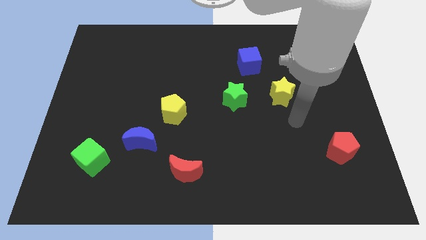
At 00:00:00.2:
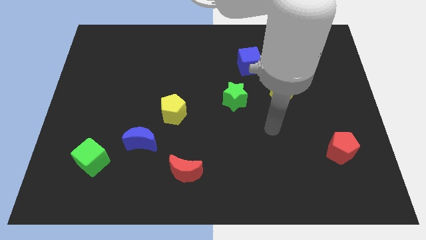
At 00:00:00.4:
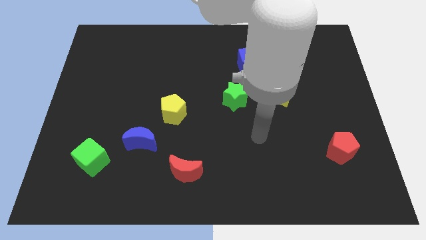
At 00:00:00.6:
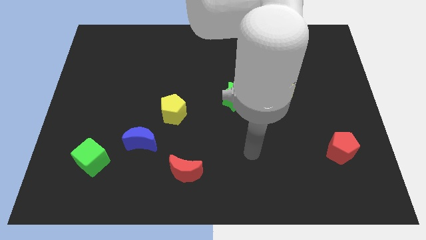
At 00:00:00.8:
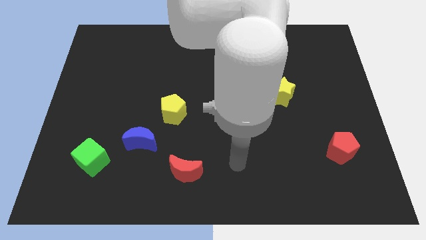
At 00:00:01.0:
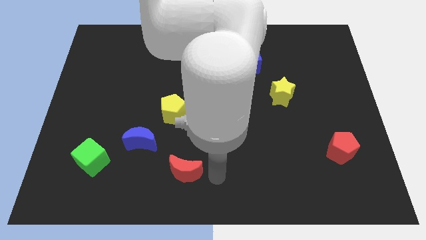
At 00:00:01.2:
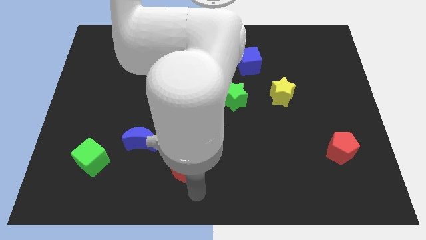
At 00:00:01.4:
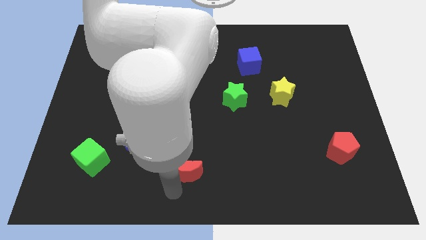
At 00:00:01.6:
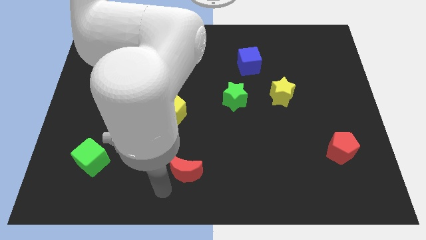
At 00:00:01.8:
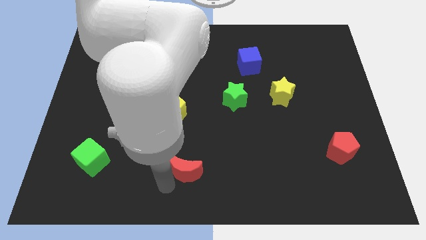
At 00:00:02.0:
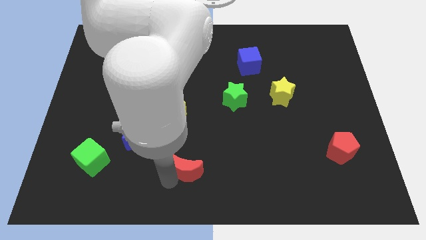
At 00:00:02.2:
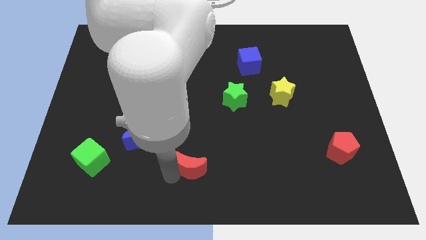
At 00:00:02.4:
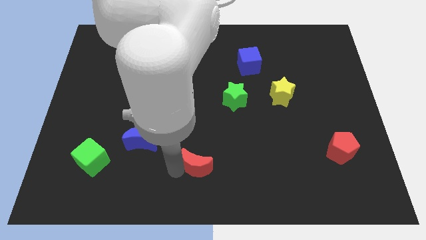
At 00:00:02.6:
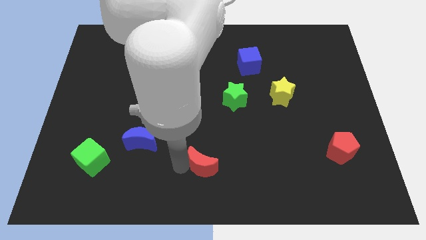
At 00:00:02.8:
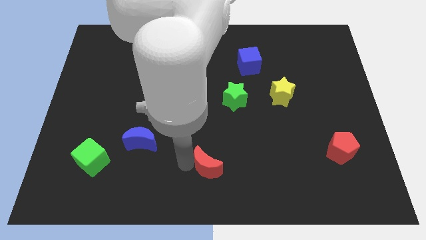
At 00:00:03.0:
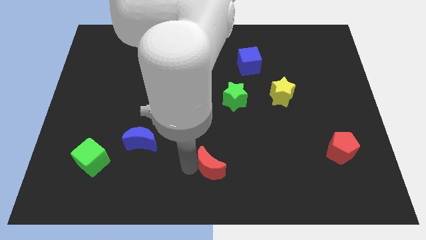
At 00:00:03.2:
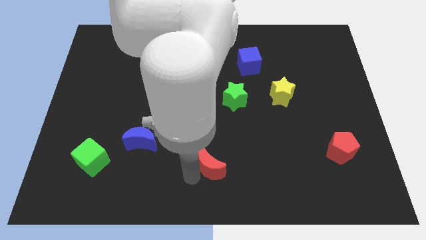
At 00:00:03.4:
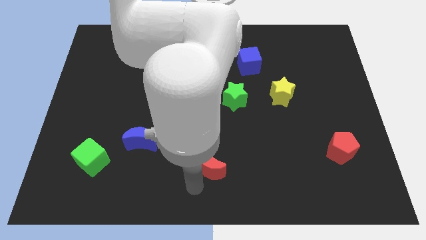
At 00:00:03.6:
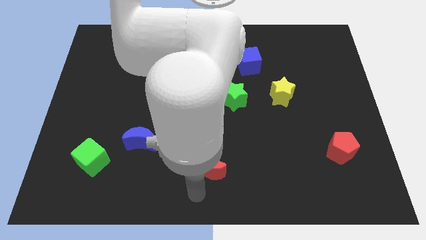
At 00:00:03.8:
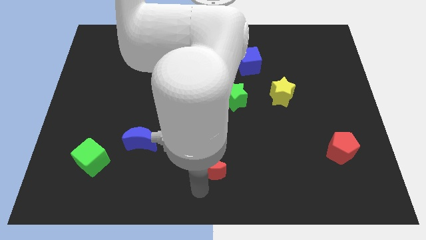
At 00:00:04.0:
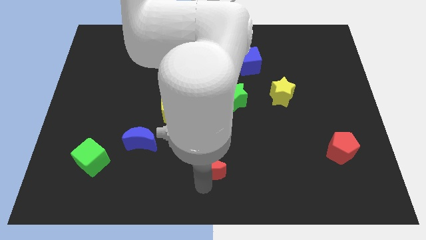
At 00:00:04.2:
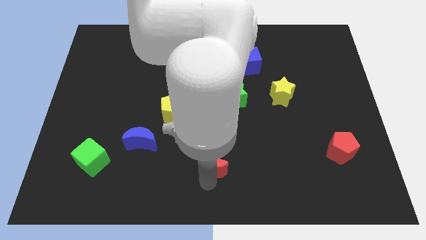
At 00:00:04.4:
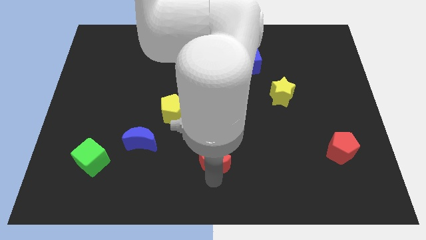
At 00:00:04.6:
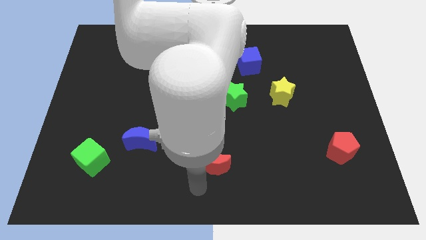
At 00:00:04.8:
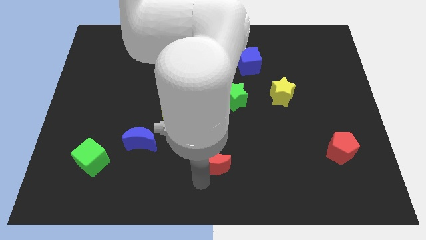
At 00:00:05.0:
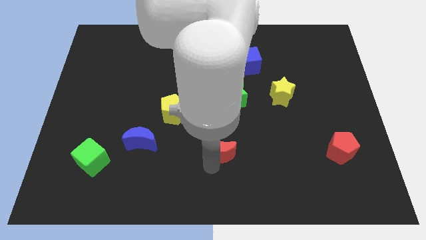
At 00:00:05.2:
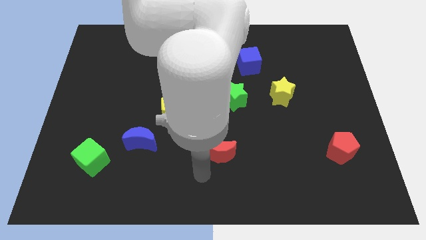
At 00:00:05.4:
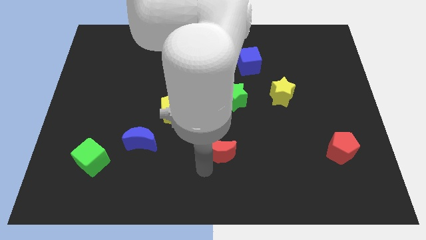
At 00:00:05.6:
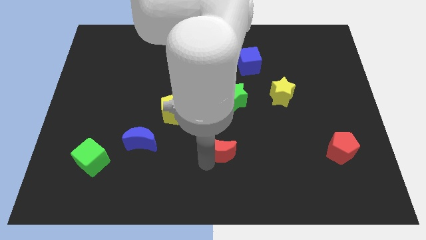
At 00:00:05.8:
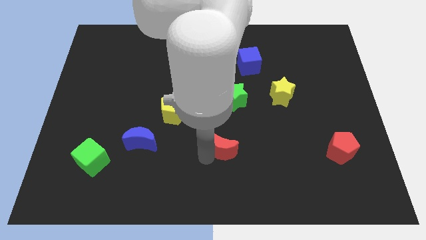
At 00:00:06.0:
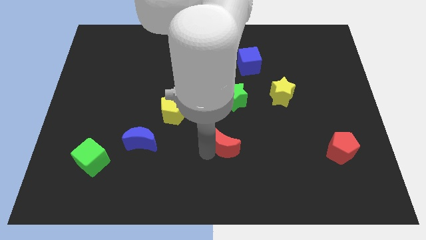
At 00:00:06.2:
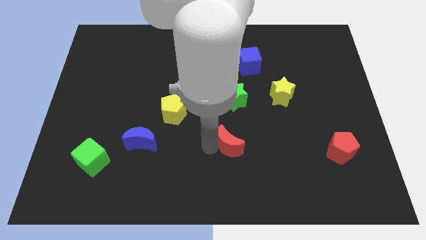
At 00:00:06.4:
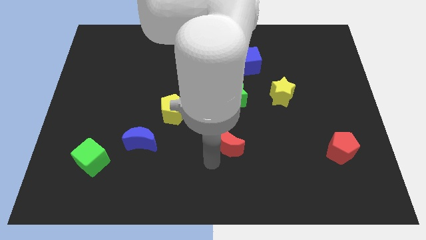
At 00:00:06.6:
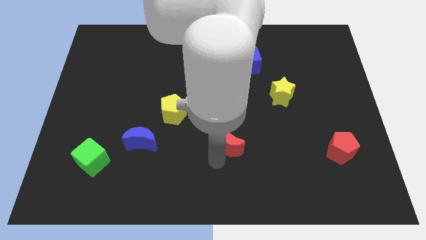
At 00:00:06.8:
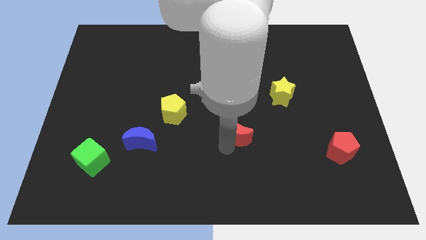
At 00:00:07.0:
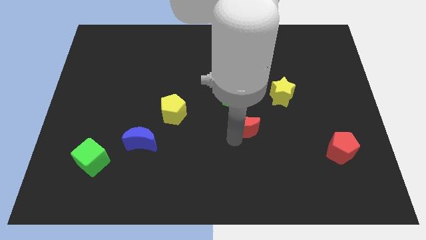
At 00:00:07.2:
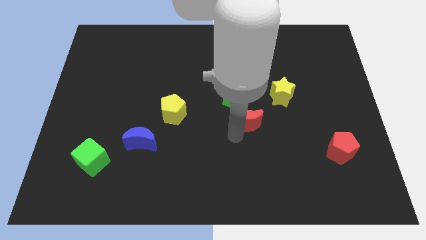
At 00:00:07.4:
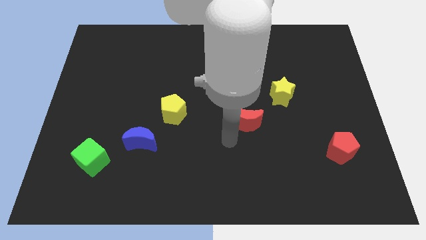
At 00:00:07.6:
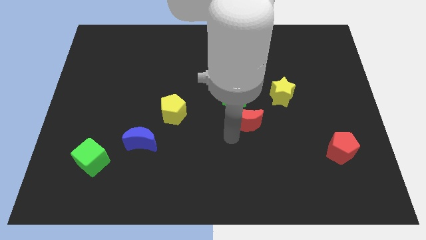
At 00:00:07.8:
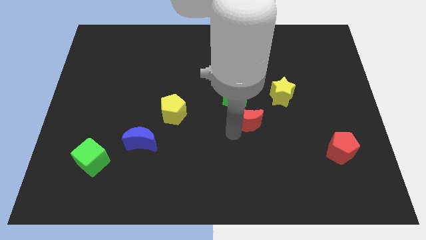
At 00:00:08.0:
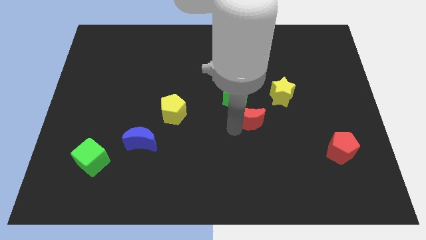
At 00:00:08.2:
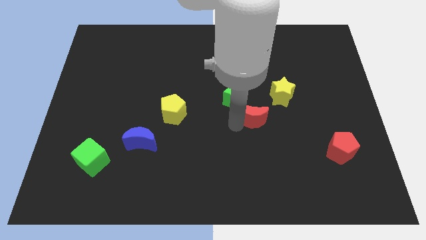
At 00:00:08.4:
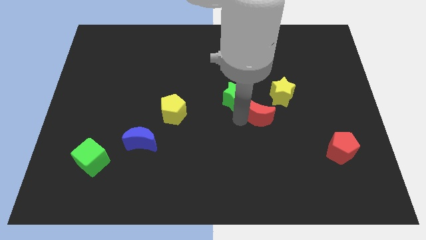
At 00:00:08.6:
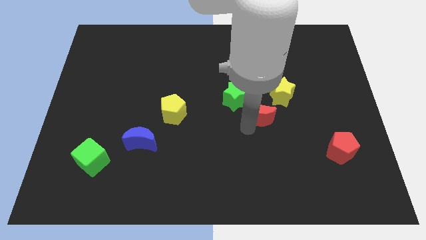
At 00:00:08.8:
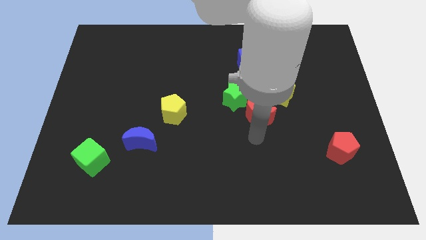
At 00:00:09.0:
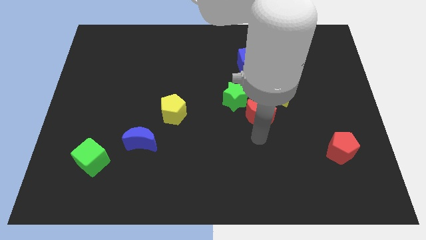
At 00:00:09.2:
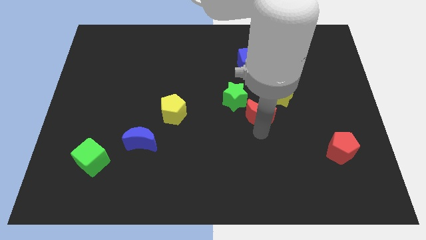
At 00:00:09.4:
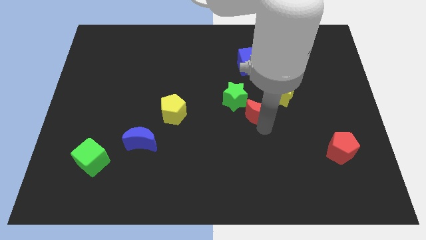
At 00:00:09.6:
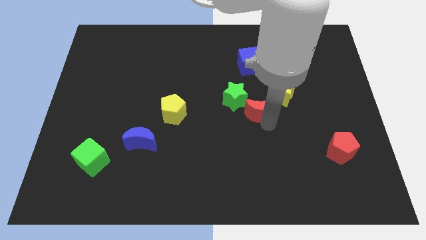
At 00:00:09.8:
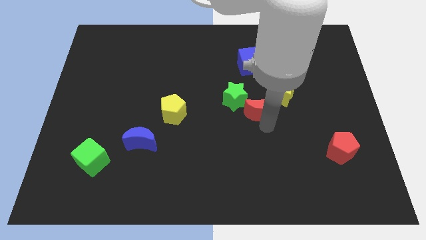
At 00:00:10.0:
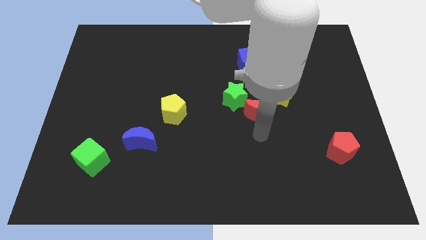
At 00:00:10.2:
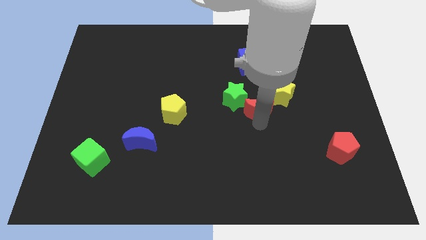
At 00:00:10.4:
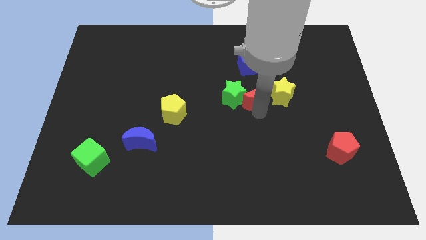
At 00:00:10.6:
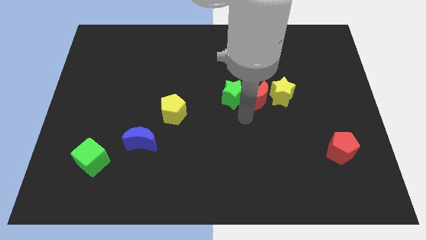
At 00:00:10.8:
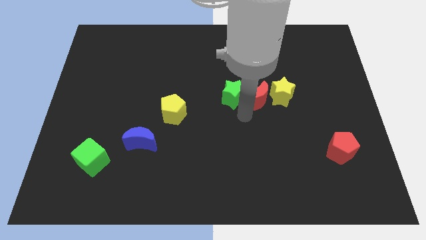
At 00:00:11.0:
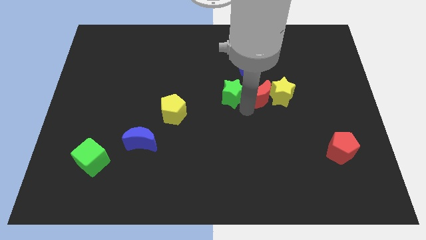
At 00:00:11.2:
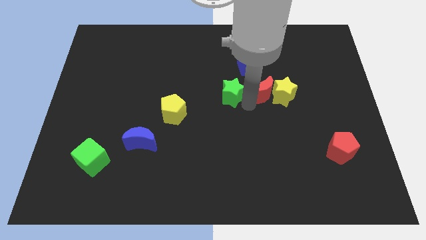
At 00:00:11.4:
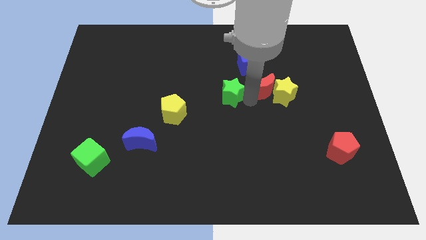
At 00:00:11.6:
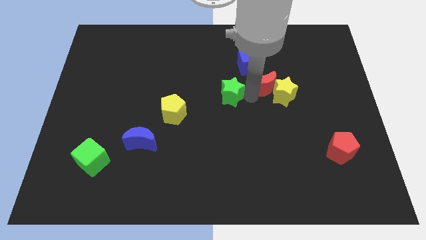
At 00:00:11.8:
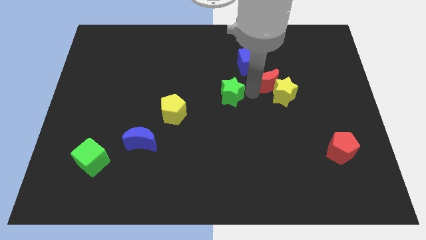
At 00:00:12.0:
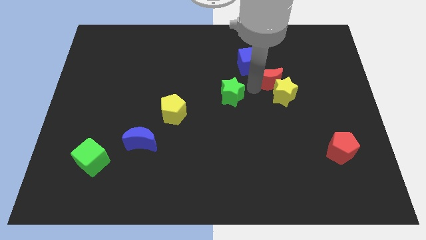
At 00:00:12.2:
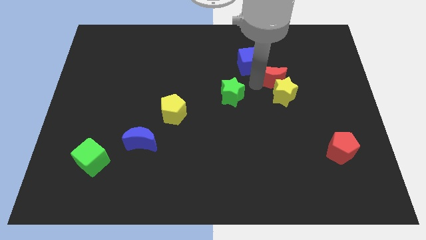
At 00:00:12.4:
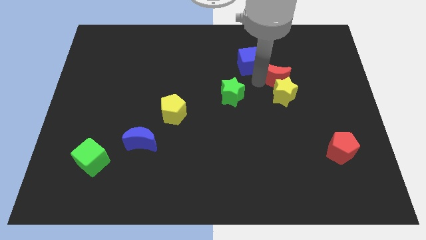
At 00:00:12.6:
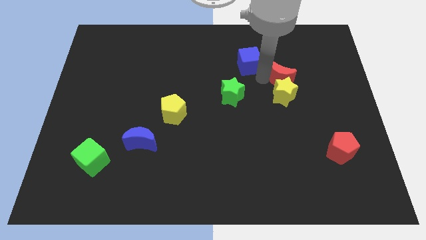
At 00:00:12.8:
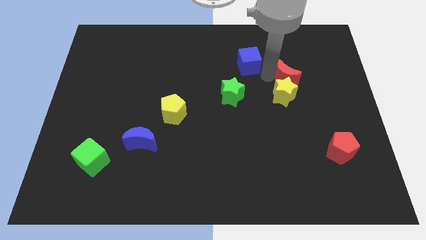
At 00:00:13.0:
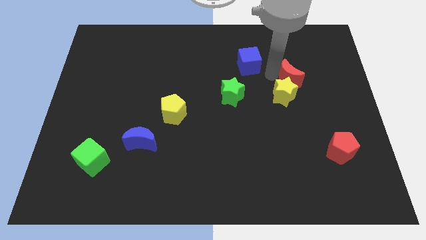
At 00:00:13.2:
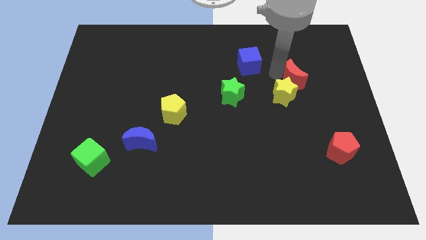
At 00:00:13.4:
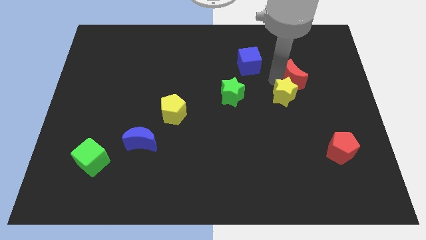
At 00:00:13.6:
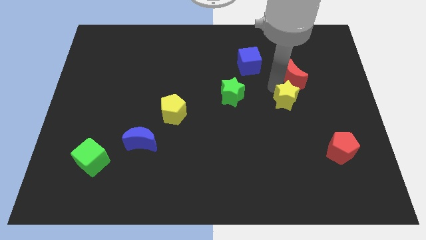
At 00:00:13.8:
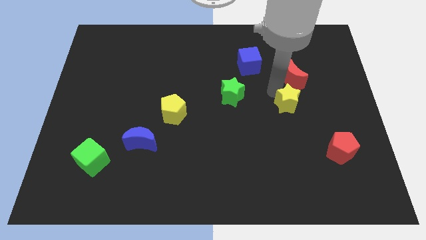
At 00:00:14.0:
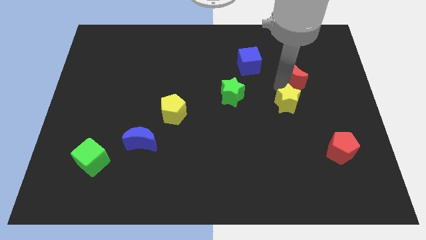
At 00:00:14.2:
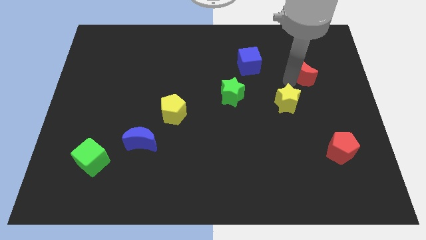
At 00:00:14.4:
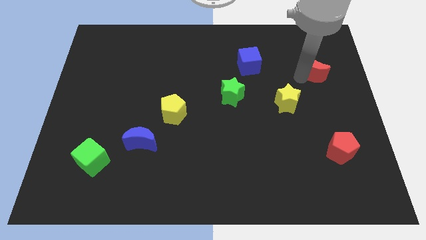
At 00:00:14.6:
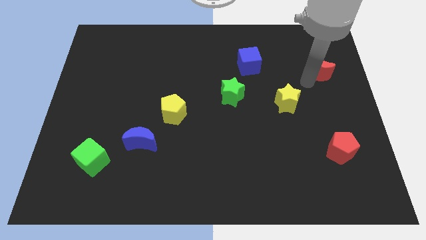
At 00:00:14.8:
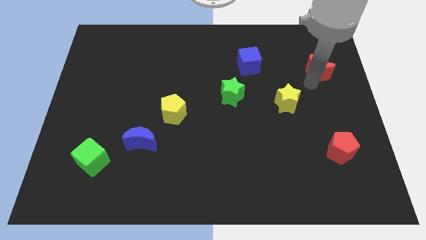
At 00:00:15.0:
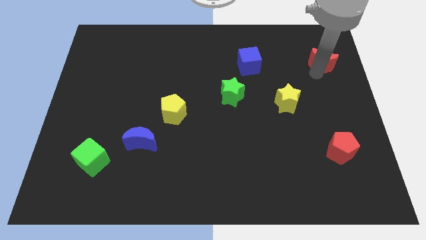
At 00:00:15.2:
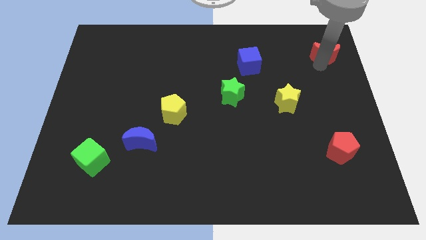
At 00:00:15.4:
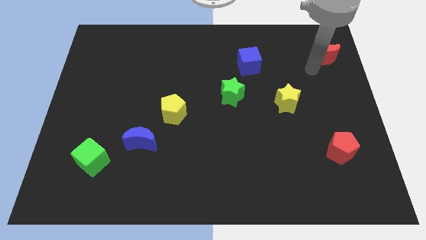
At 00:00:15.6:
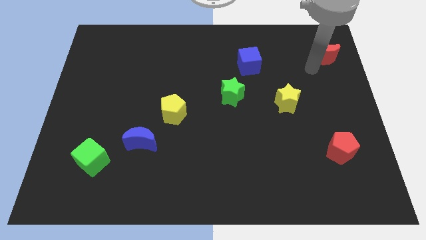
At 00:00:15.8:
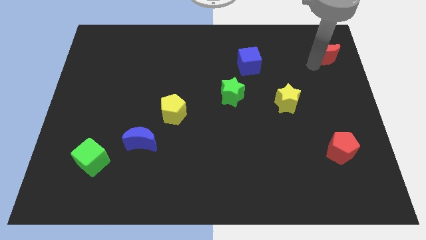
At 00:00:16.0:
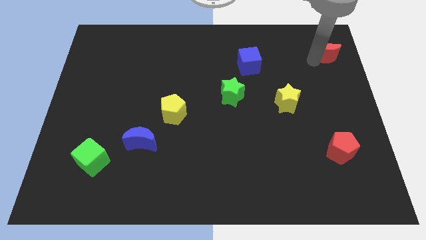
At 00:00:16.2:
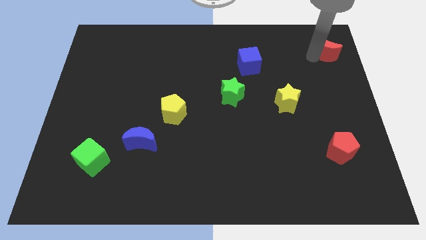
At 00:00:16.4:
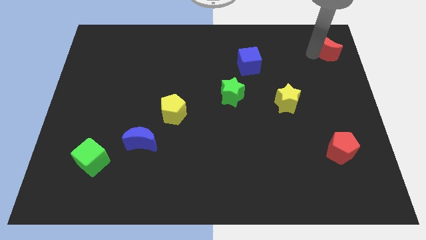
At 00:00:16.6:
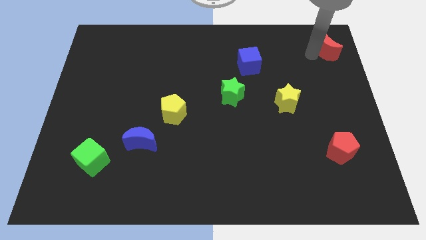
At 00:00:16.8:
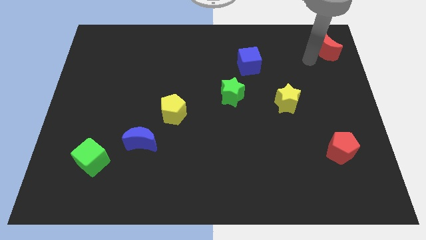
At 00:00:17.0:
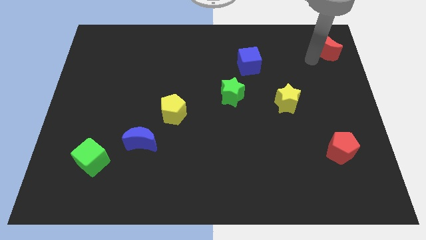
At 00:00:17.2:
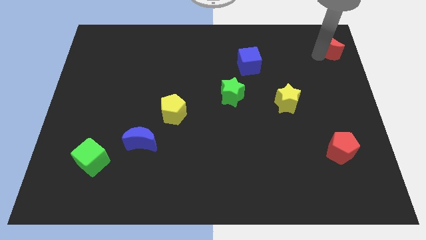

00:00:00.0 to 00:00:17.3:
push the red moon to the top right of the board
